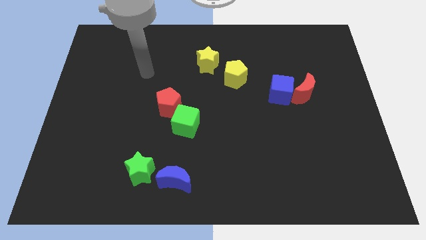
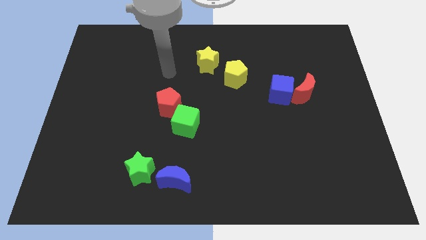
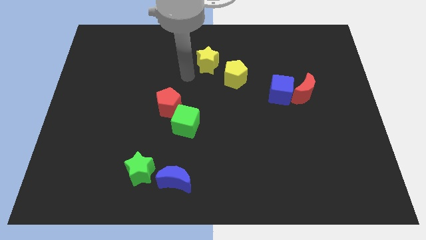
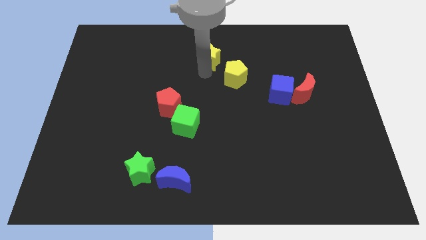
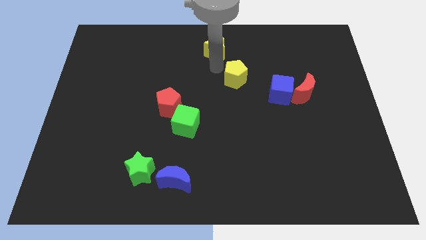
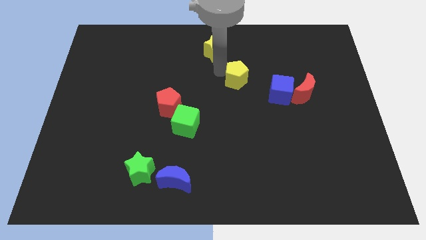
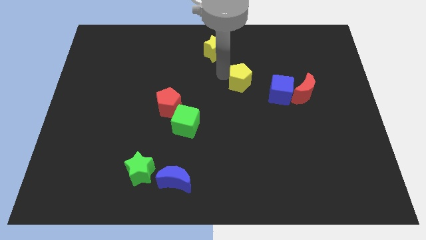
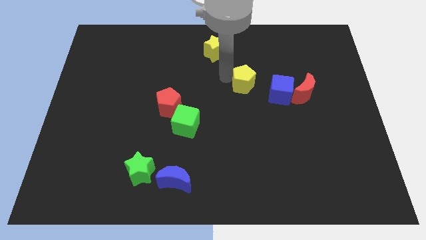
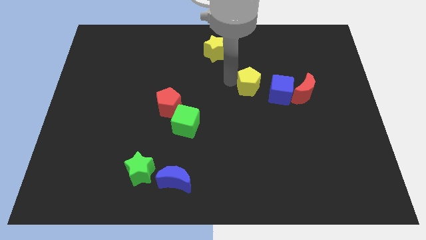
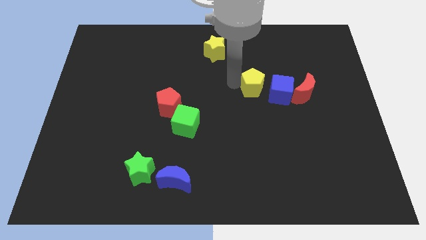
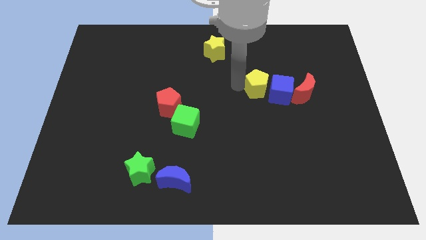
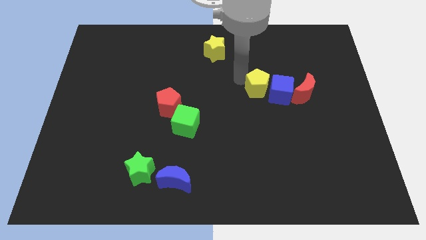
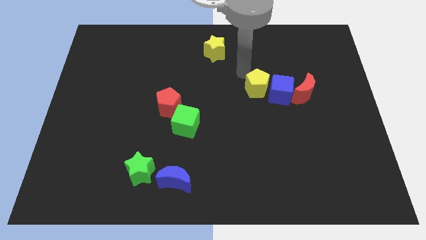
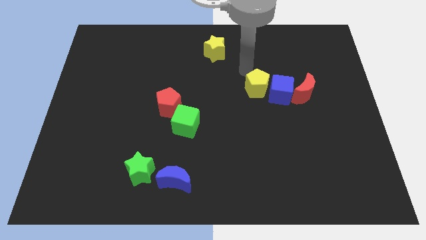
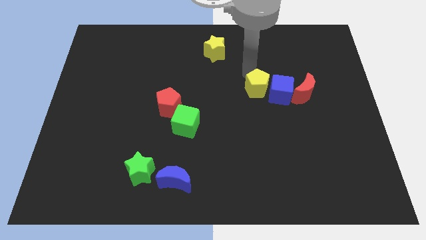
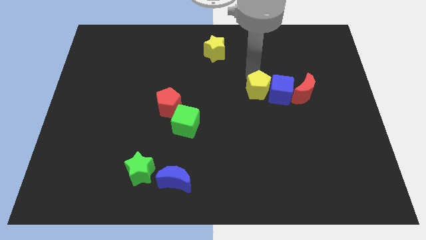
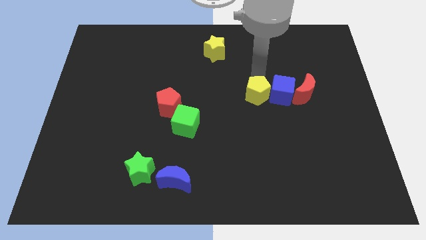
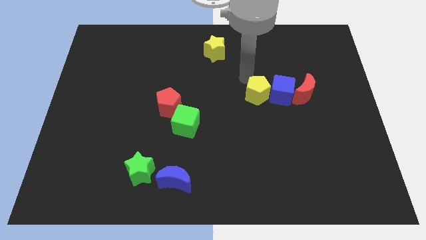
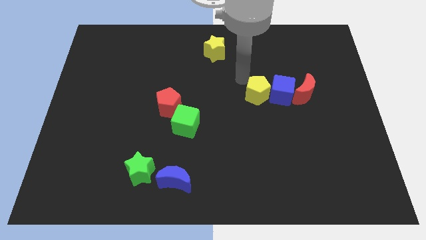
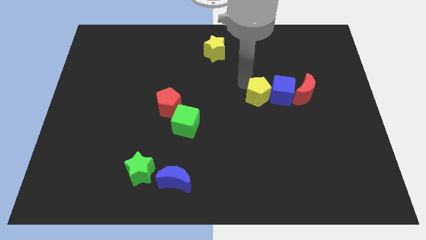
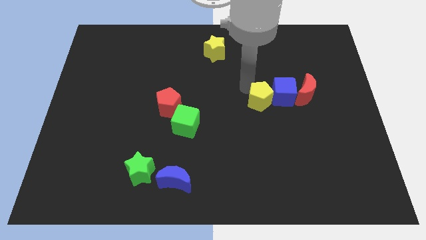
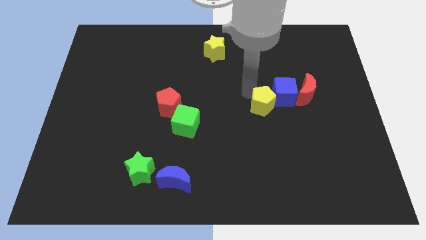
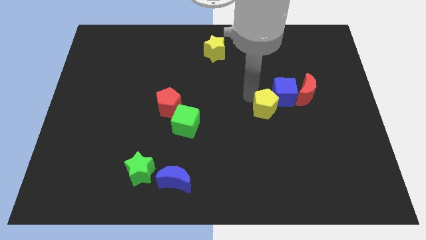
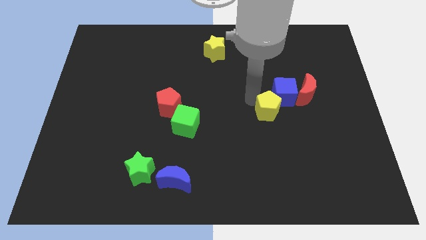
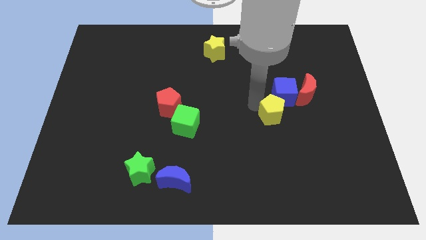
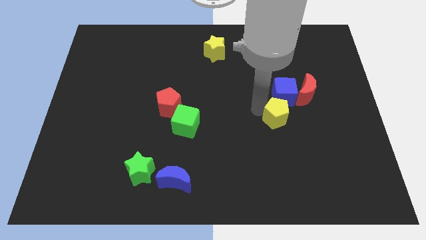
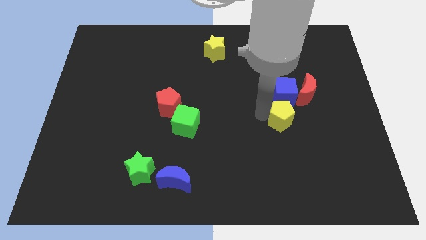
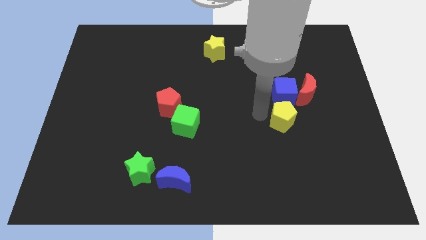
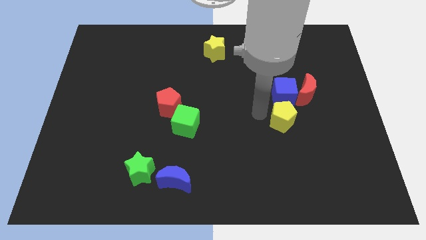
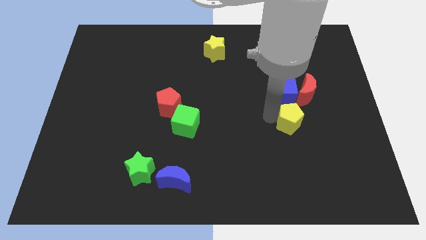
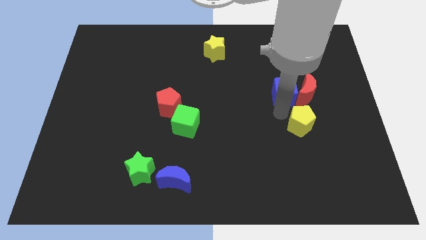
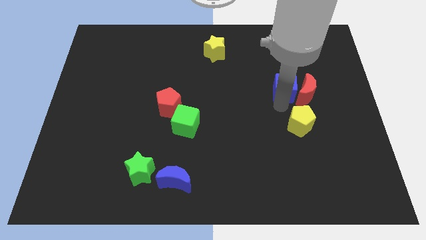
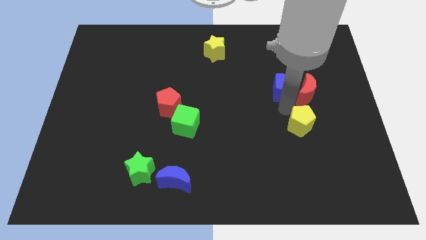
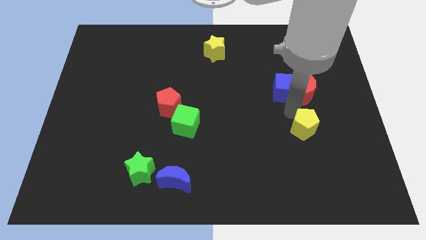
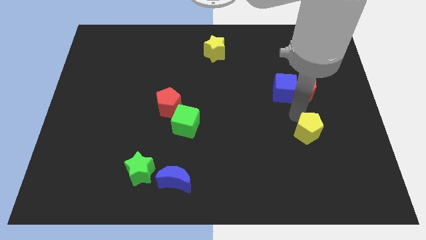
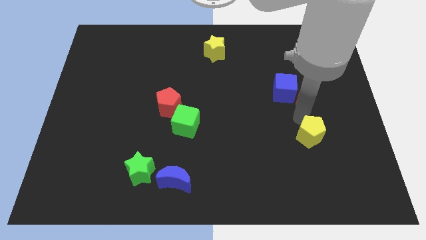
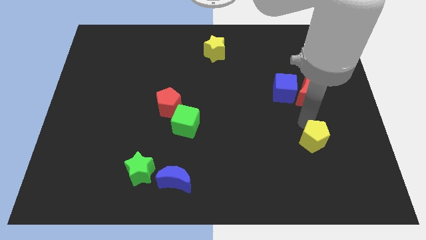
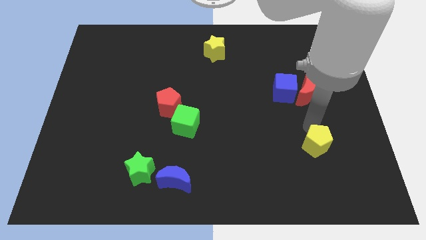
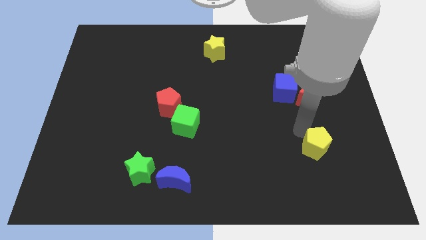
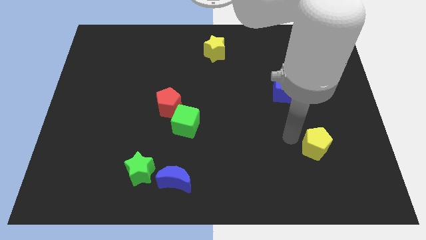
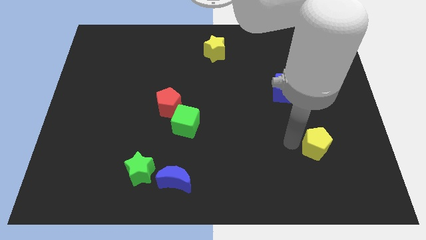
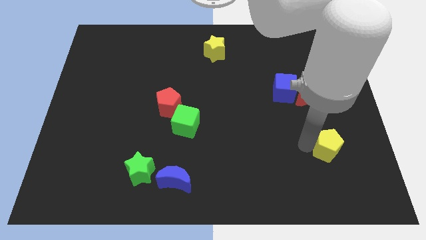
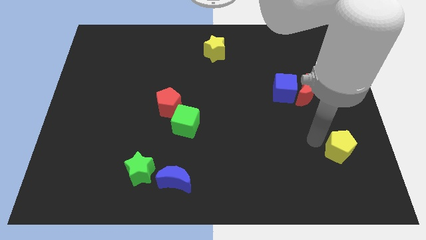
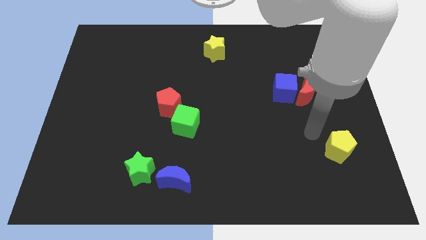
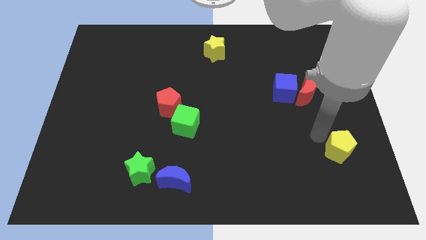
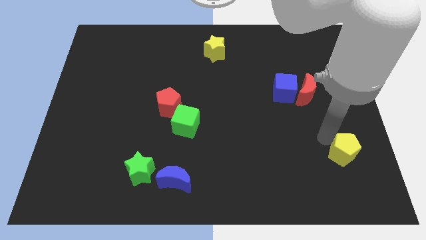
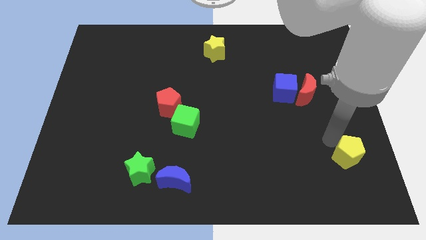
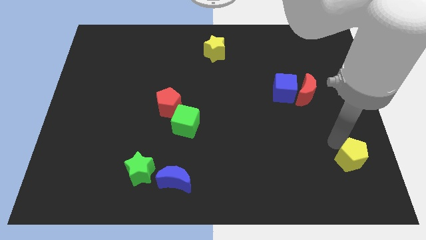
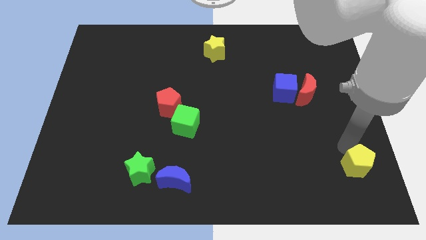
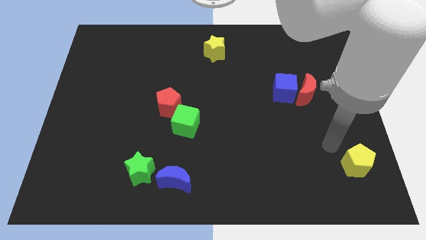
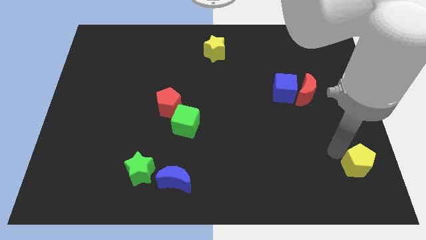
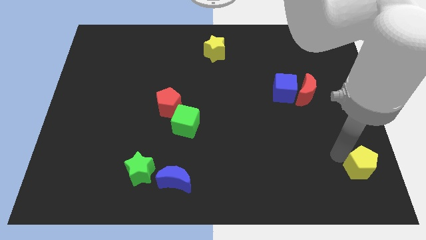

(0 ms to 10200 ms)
push the yellow pentagon to the bottom right

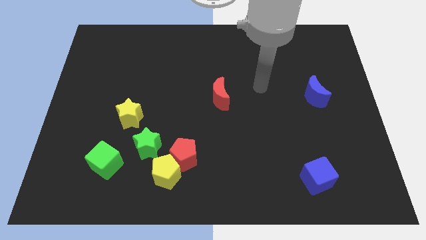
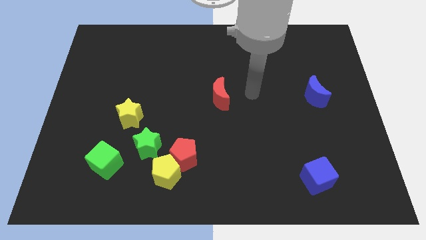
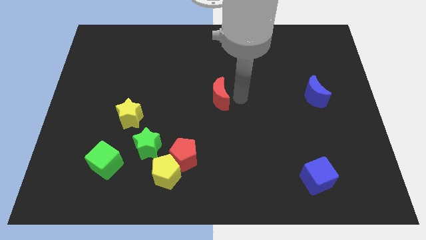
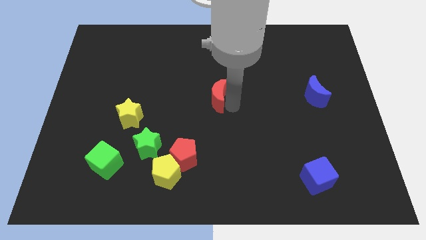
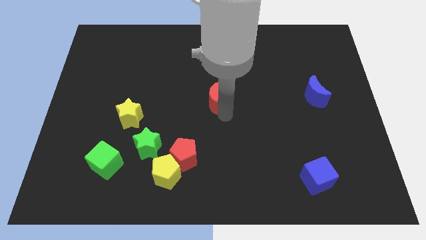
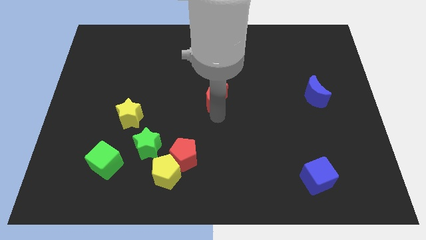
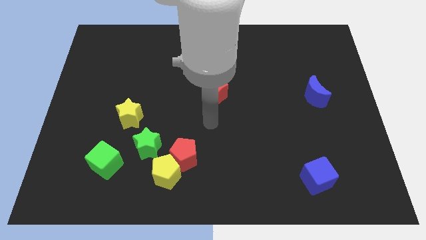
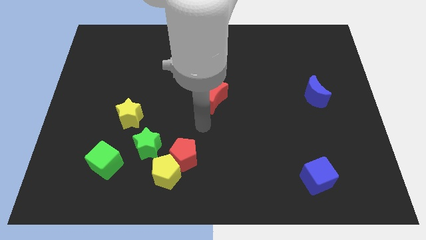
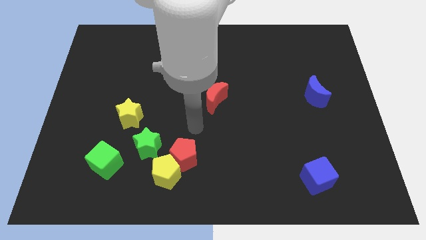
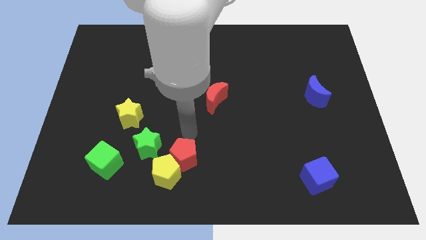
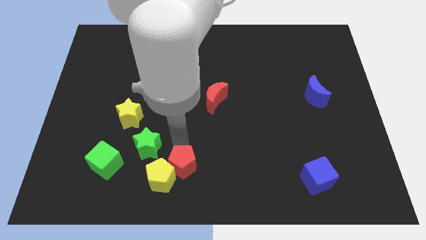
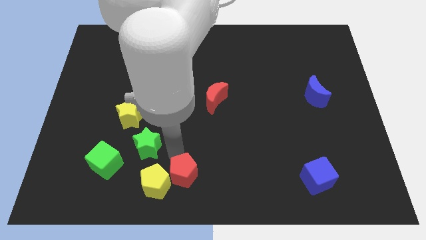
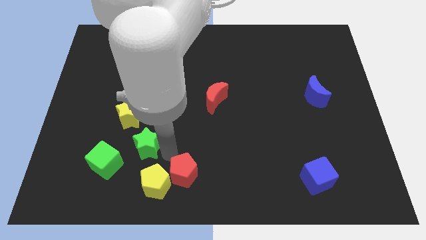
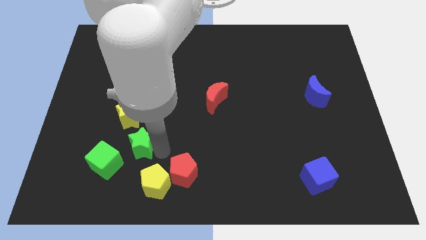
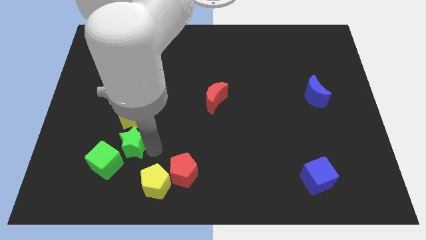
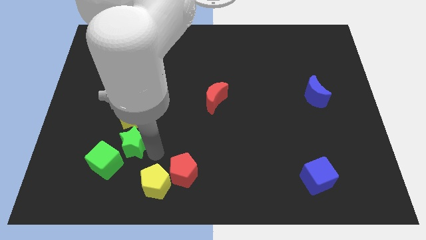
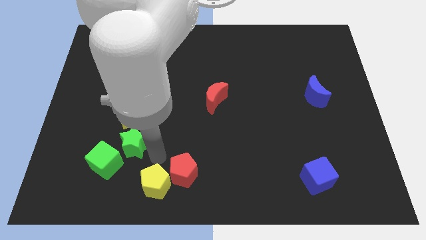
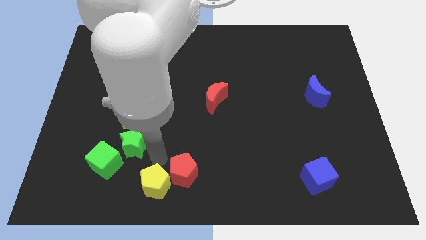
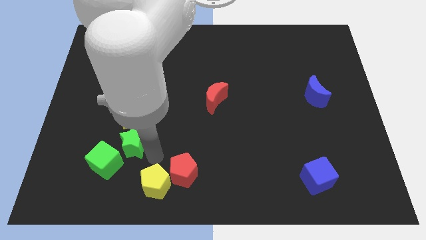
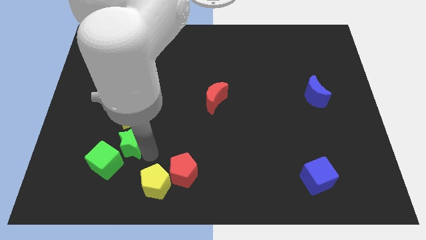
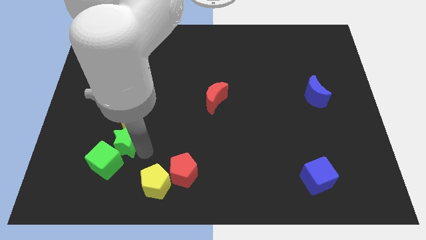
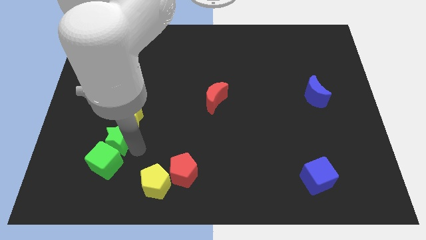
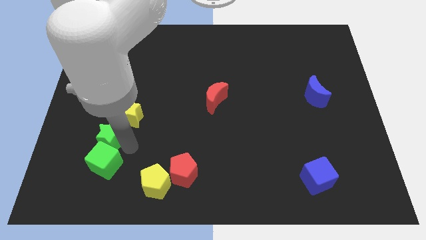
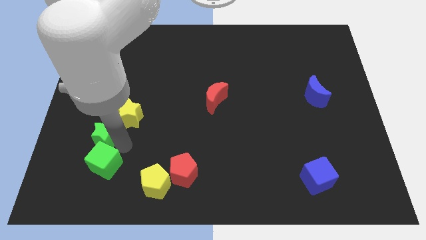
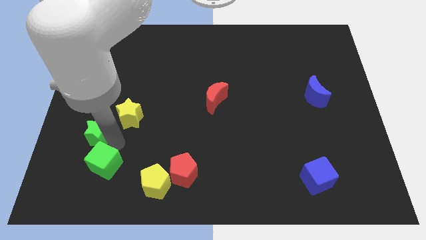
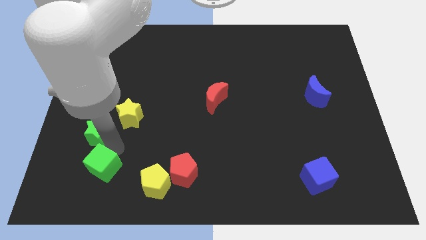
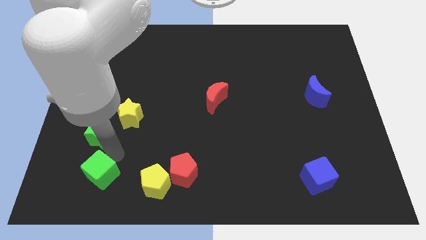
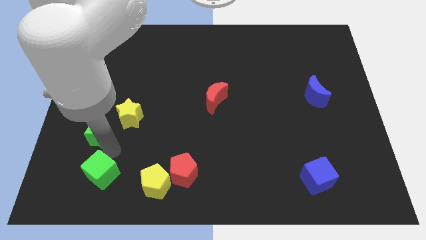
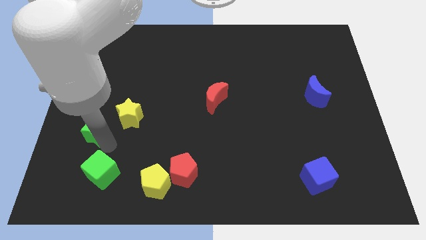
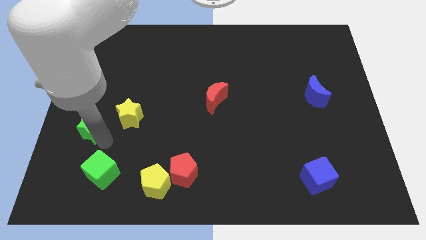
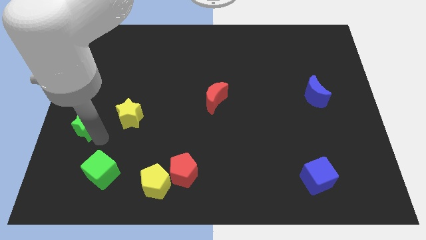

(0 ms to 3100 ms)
slide the green star to the left side
